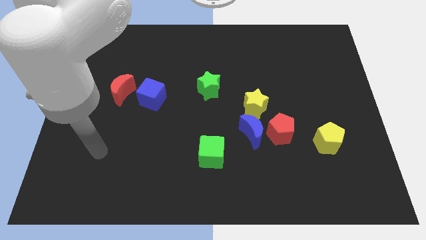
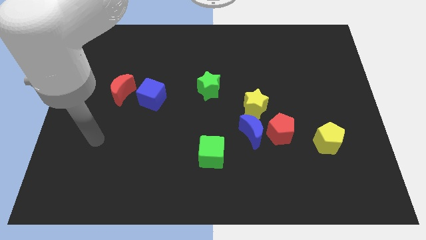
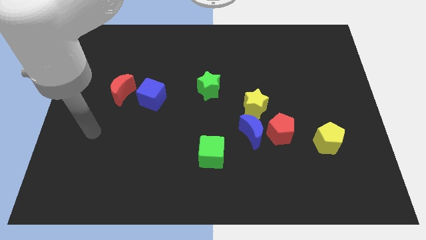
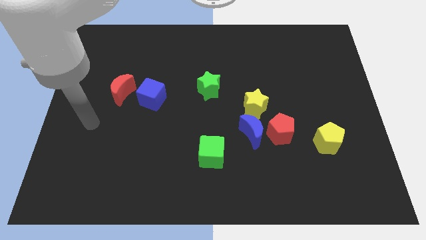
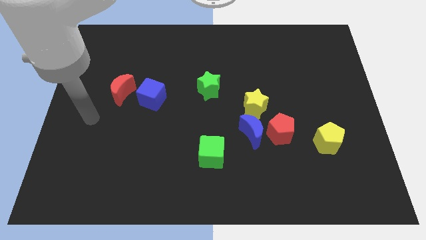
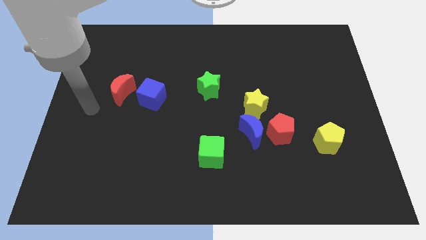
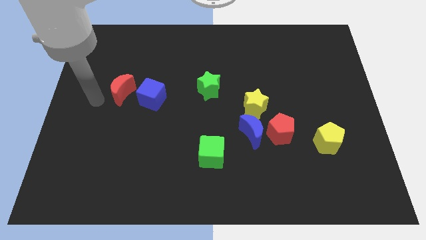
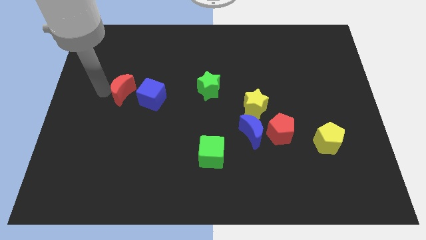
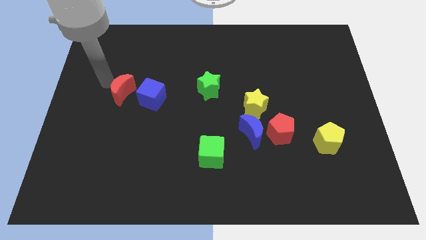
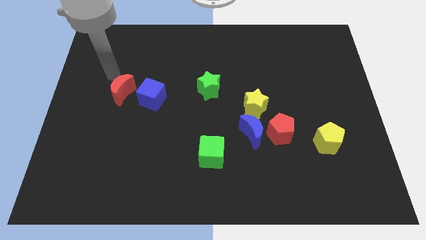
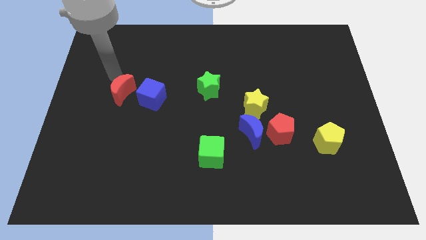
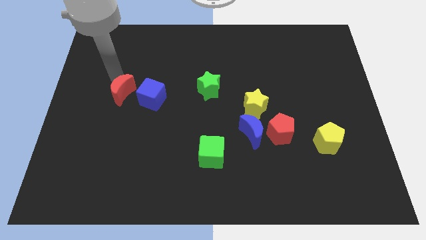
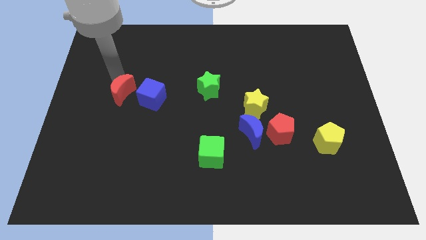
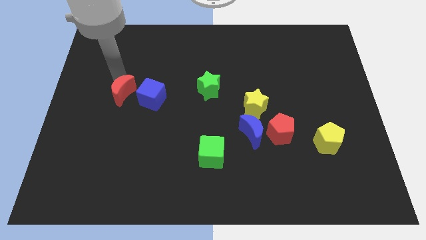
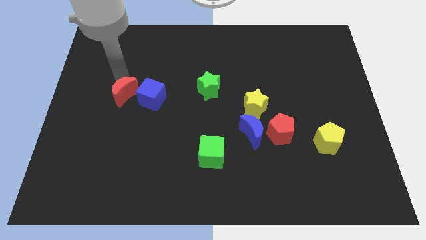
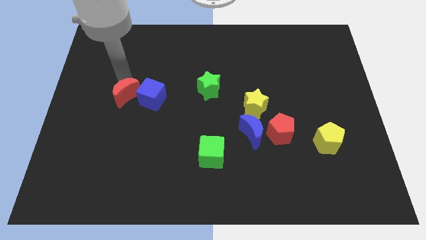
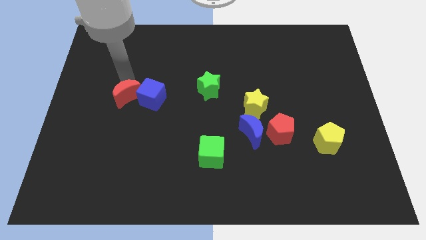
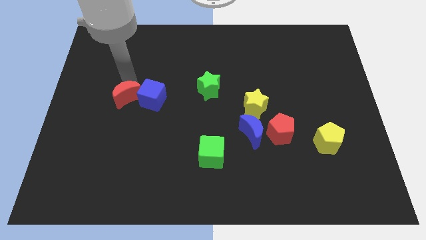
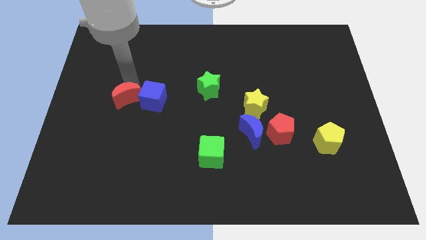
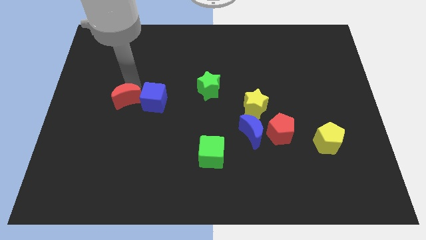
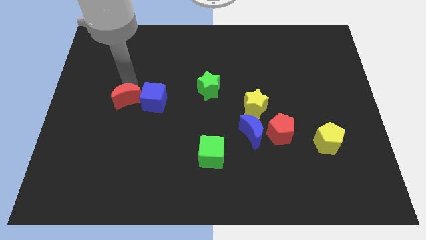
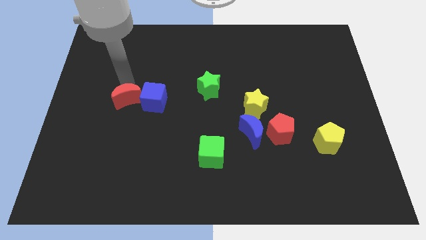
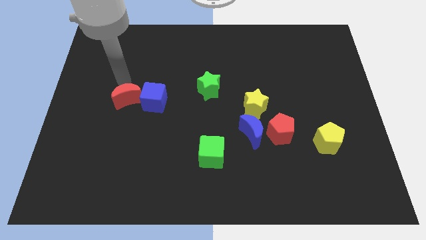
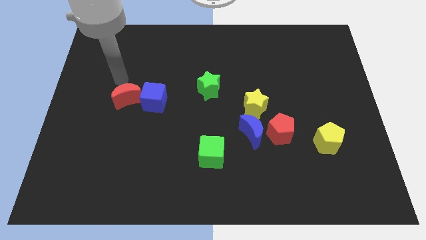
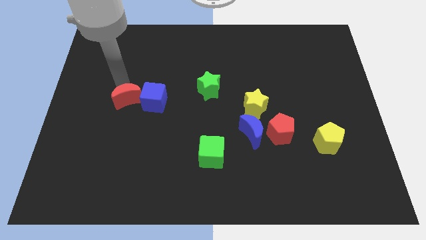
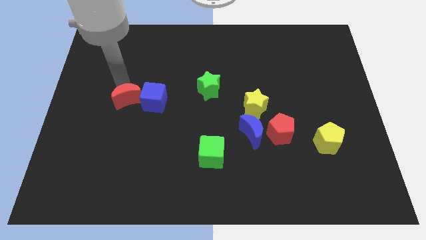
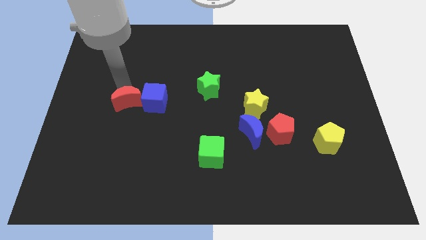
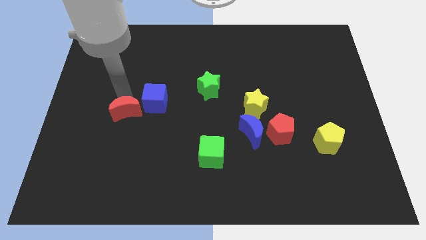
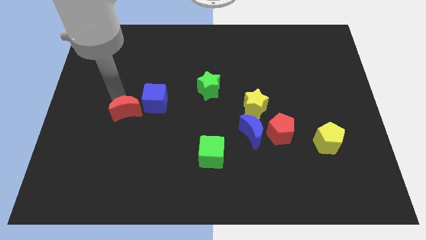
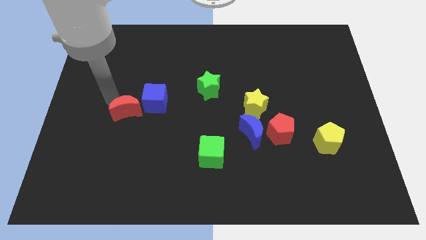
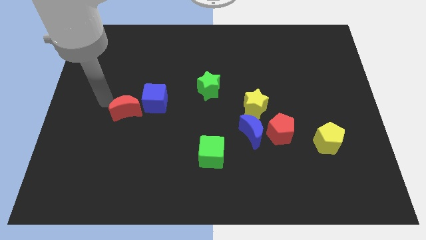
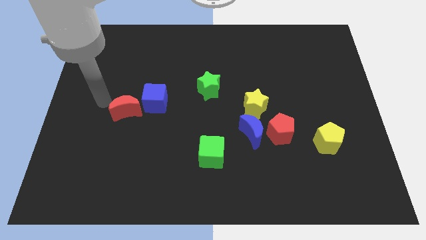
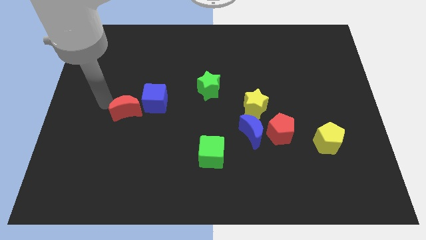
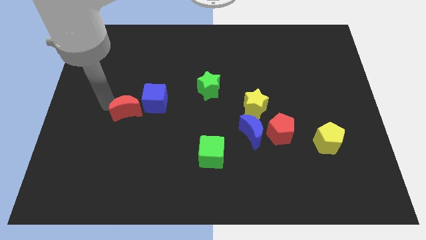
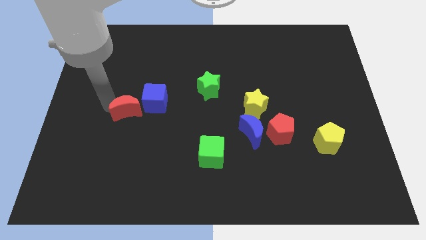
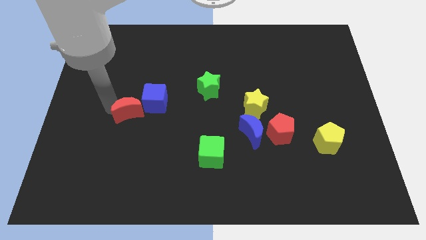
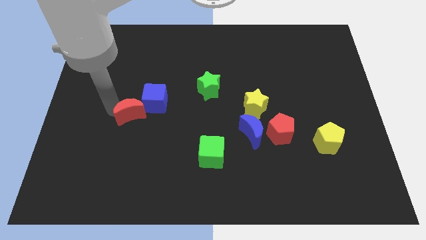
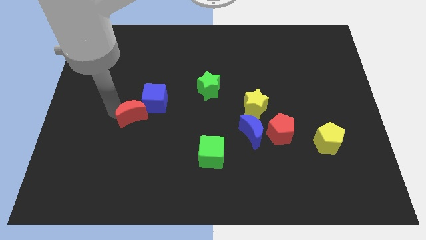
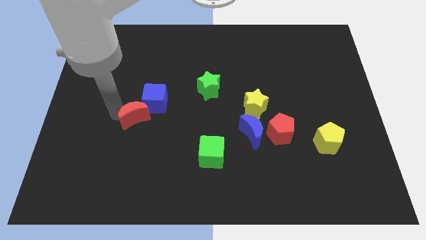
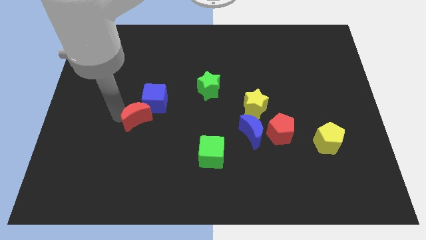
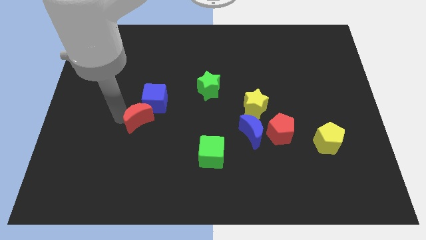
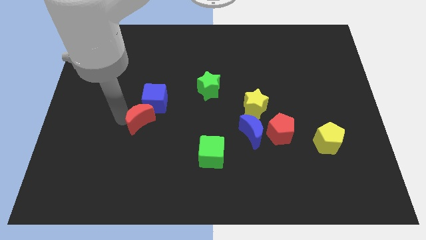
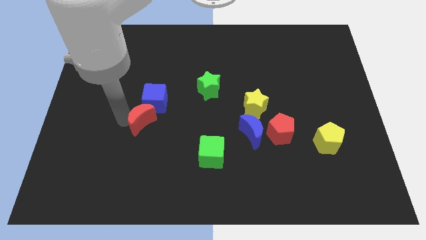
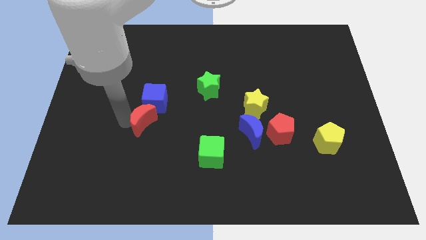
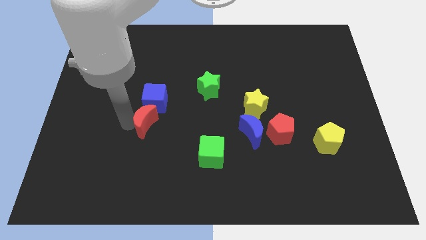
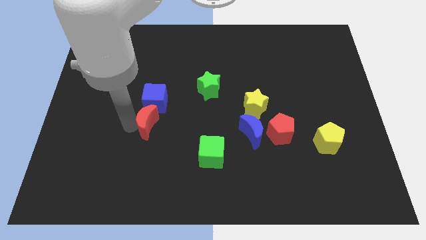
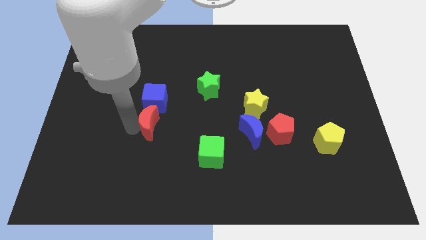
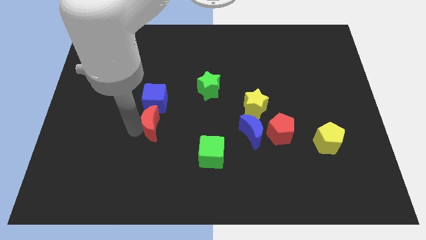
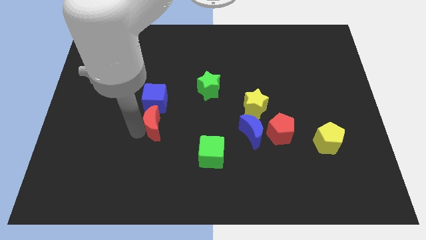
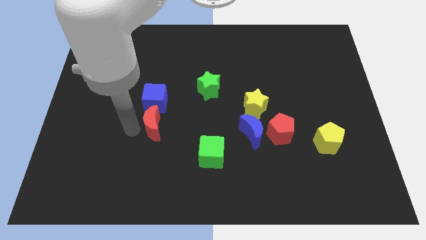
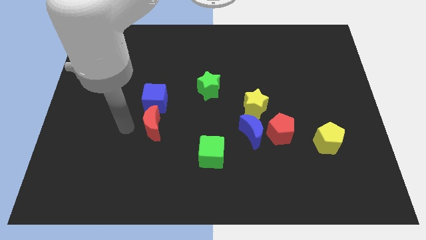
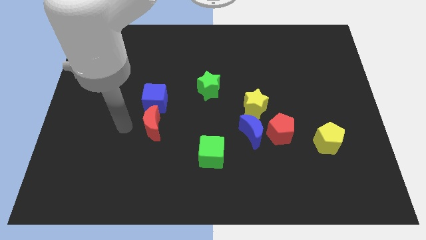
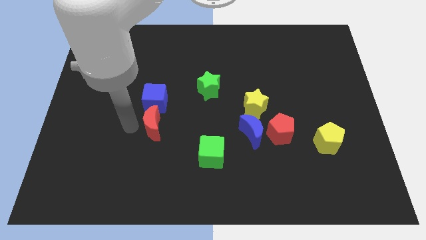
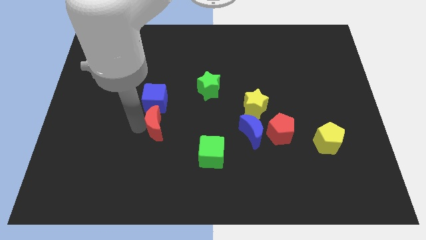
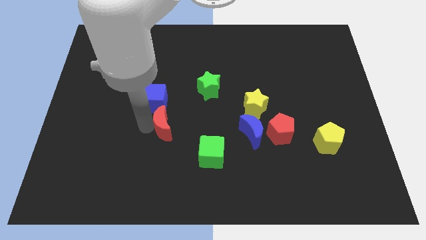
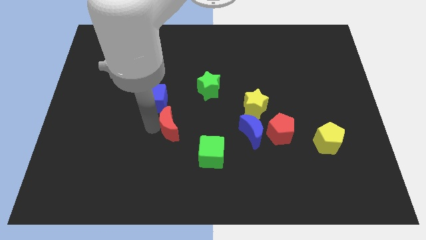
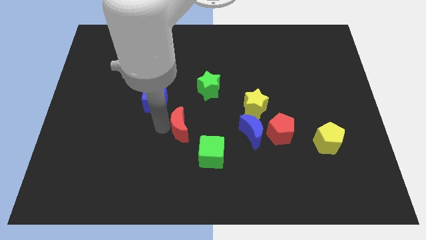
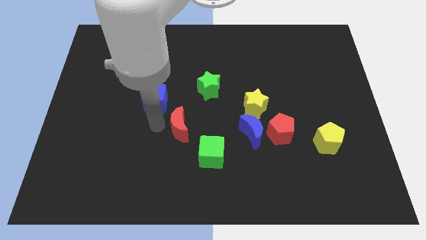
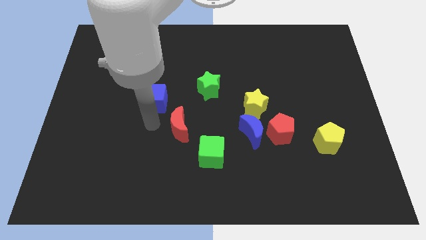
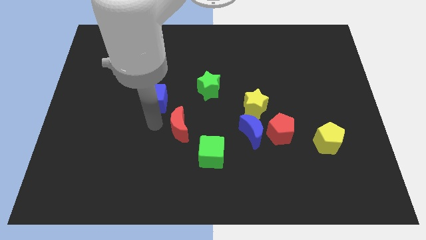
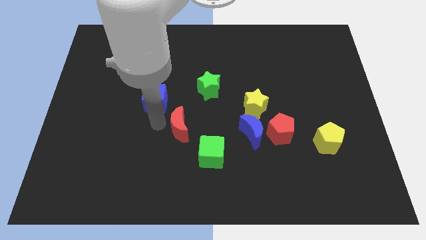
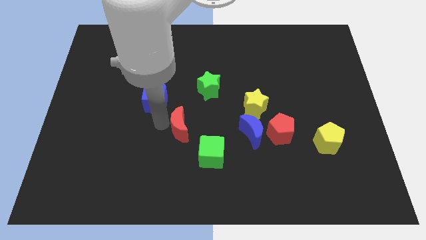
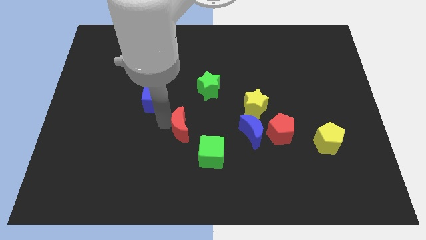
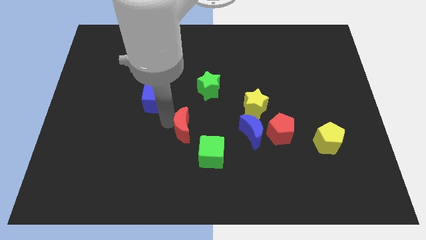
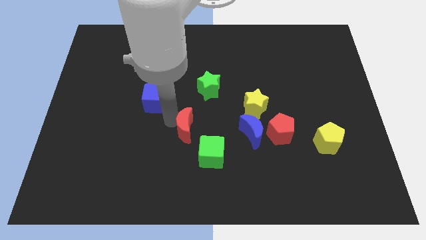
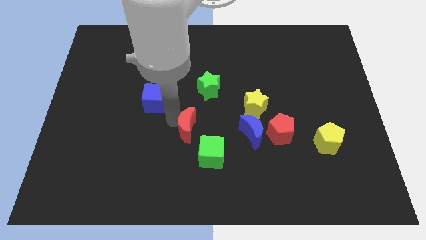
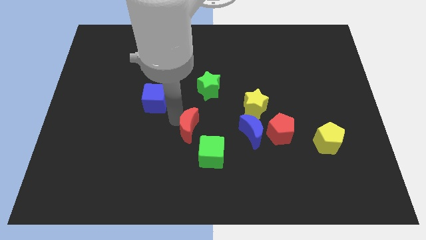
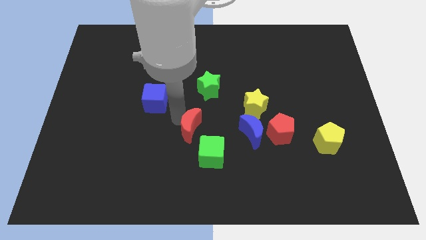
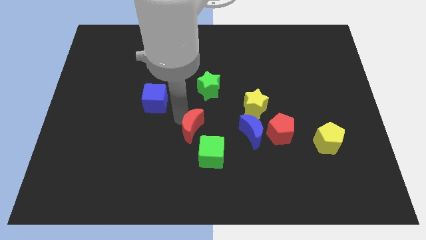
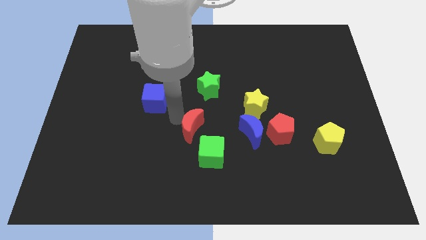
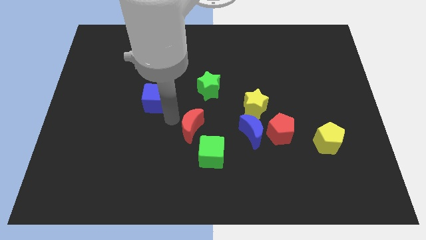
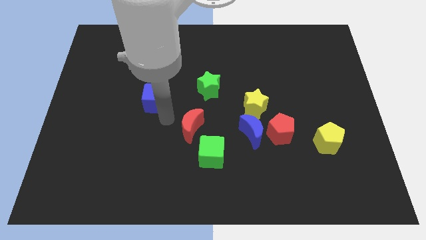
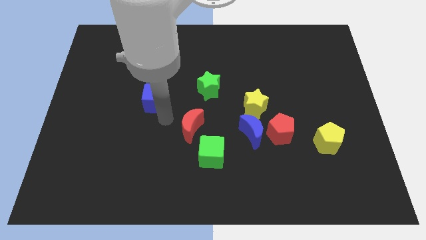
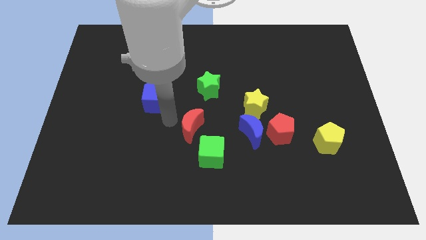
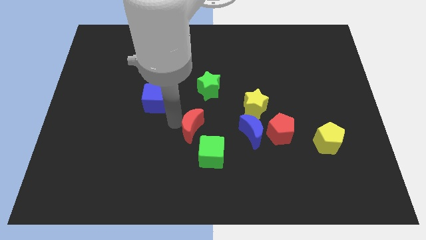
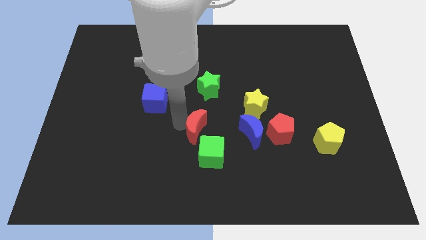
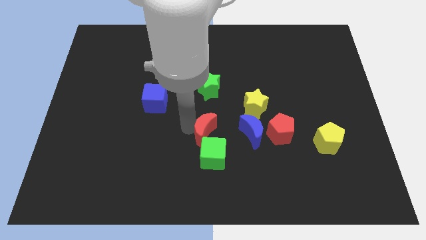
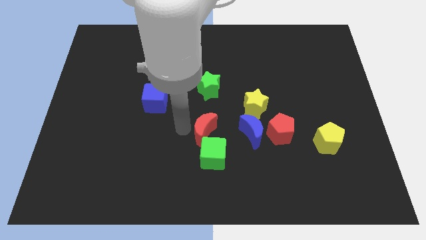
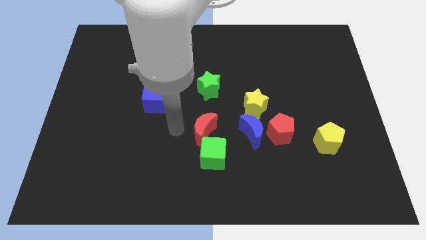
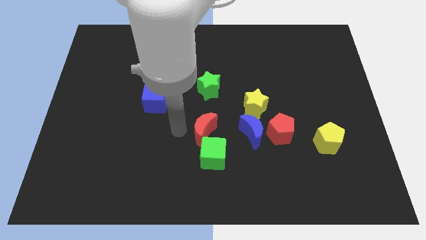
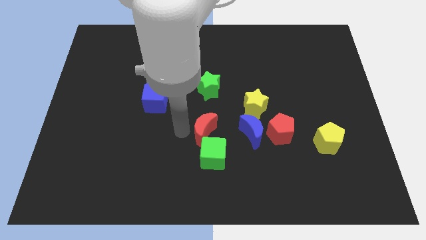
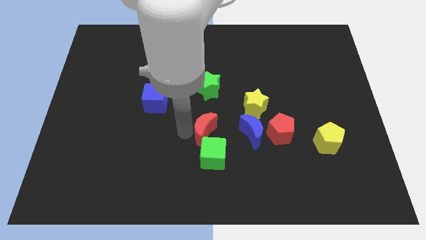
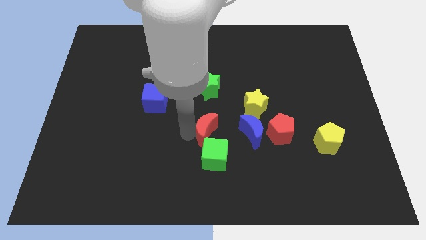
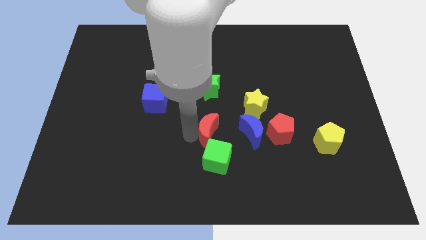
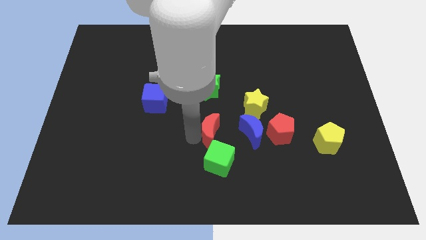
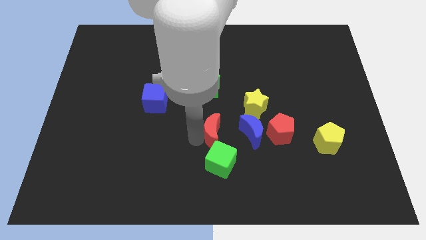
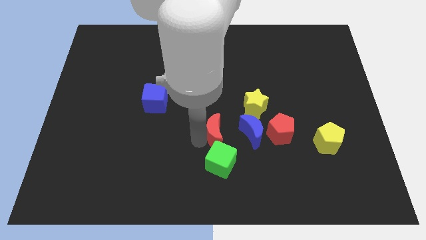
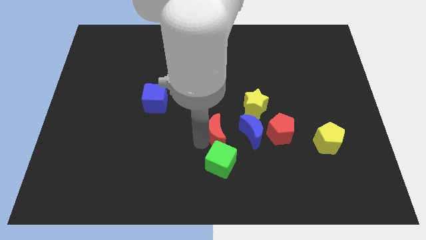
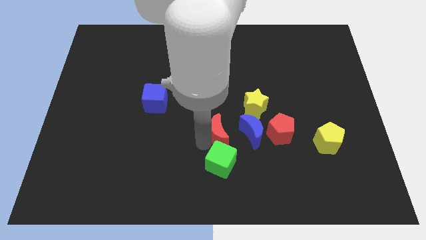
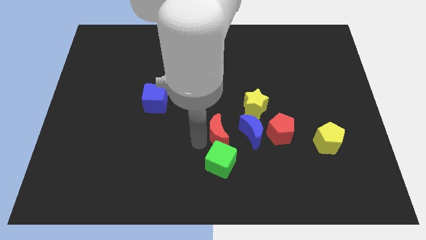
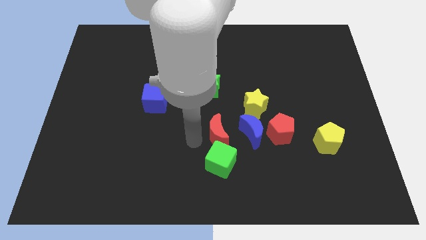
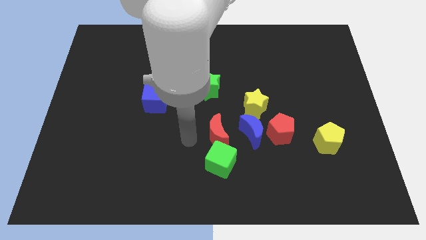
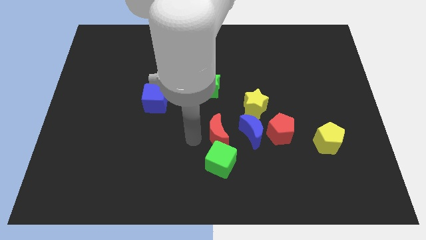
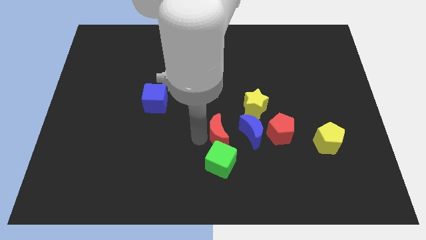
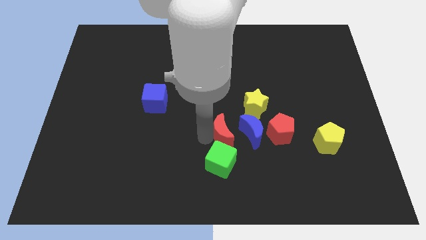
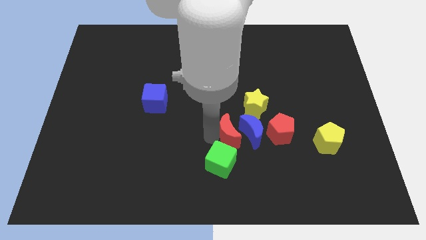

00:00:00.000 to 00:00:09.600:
put the red moon towards the blue moon
